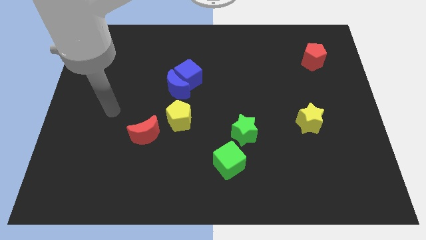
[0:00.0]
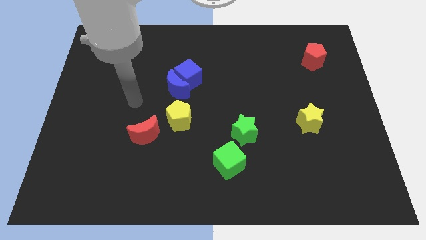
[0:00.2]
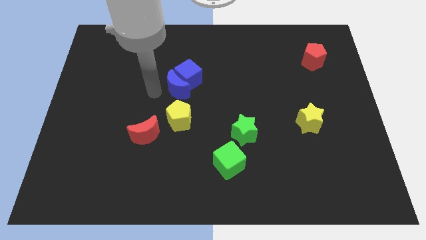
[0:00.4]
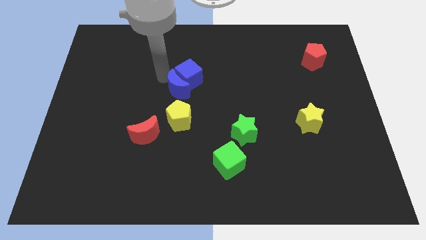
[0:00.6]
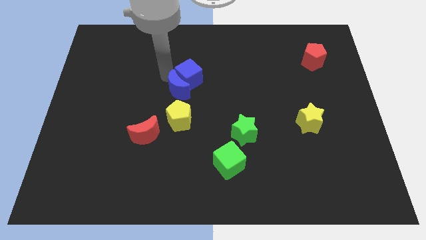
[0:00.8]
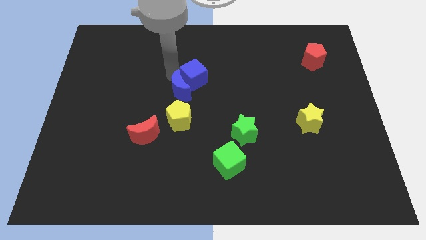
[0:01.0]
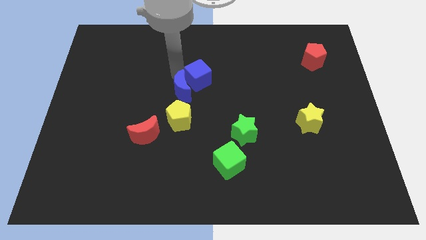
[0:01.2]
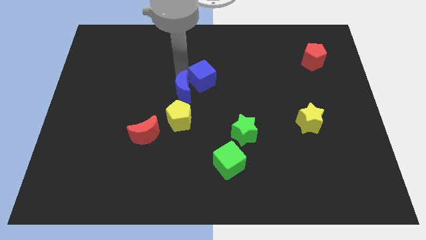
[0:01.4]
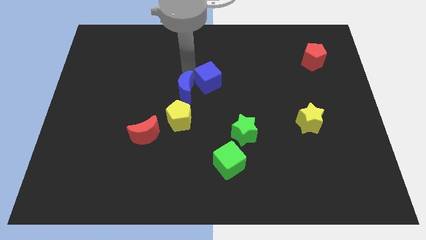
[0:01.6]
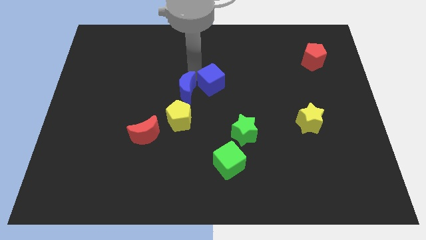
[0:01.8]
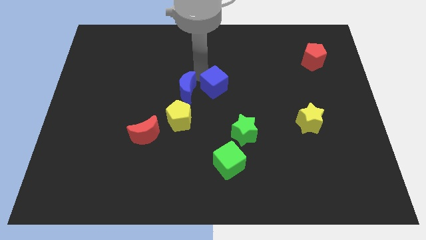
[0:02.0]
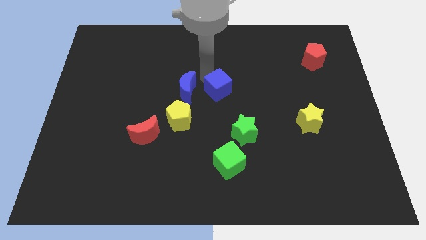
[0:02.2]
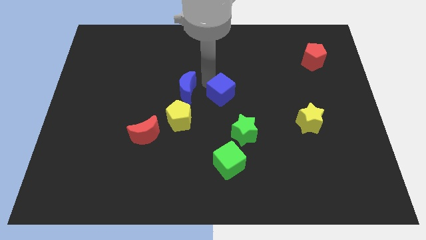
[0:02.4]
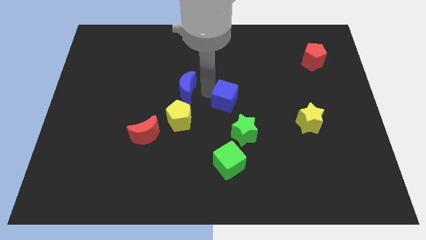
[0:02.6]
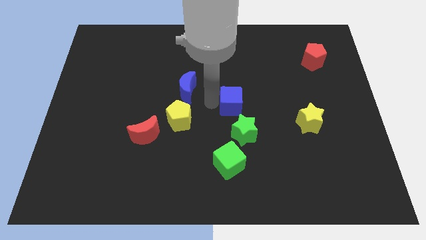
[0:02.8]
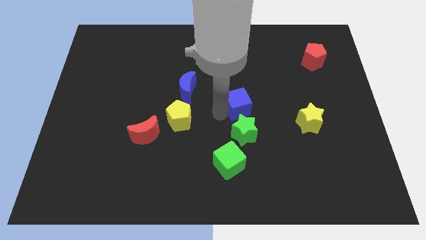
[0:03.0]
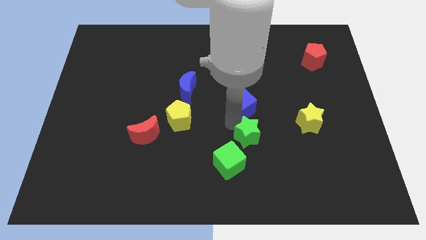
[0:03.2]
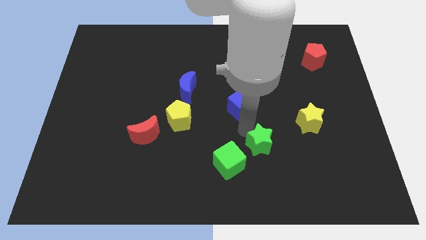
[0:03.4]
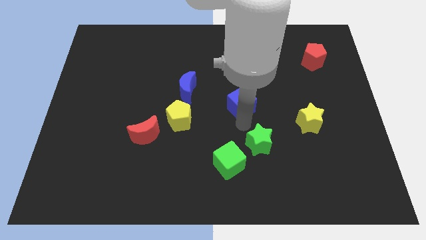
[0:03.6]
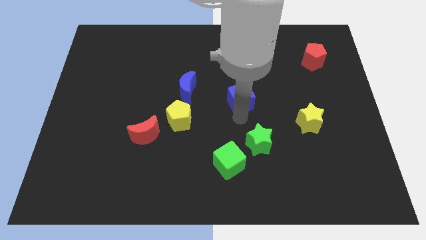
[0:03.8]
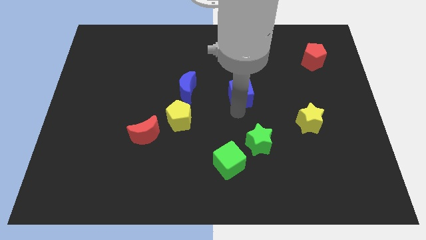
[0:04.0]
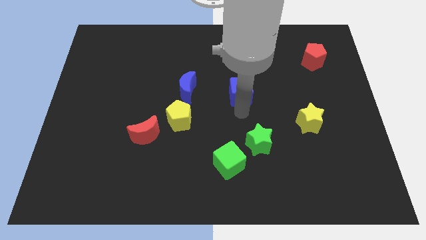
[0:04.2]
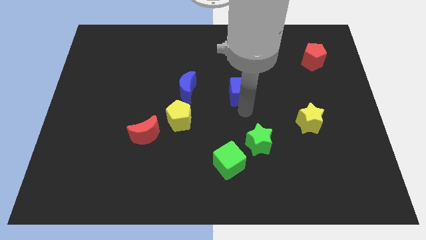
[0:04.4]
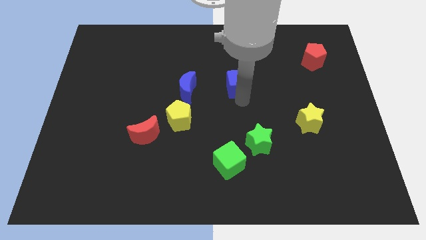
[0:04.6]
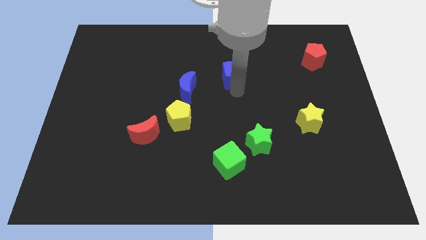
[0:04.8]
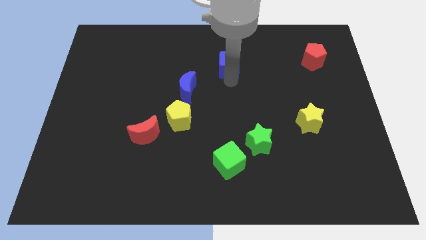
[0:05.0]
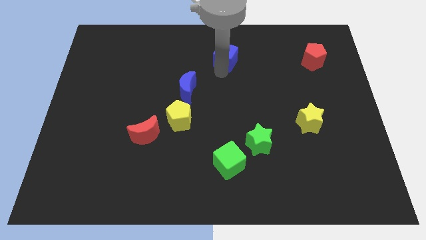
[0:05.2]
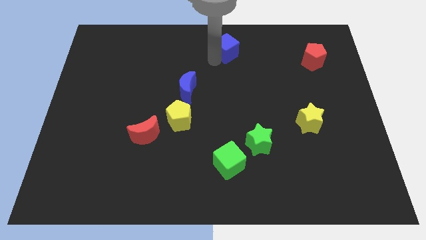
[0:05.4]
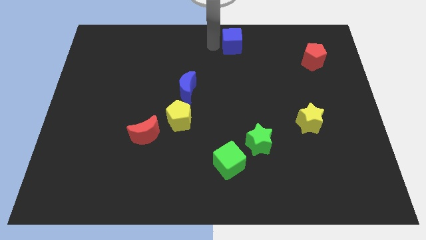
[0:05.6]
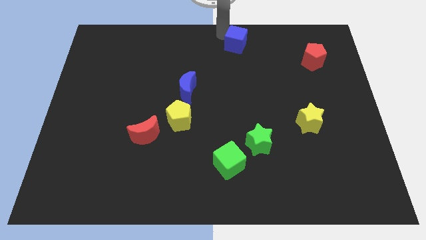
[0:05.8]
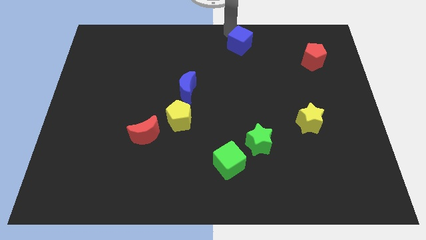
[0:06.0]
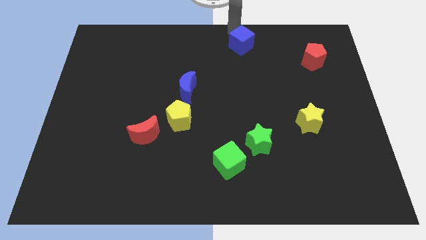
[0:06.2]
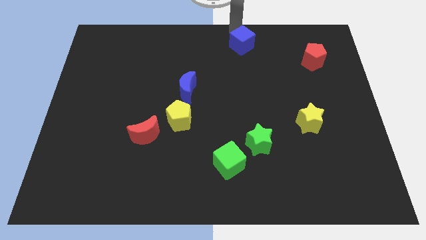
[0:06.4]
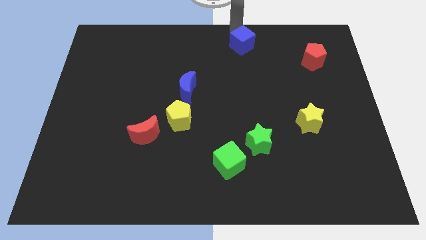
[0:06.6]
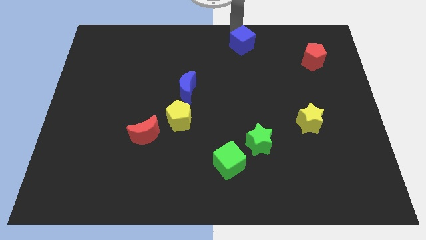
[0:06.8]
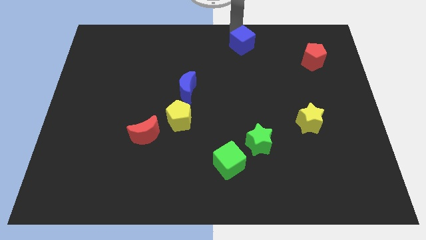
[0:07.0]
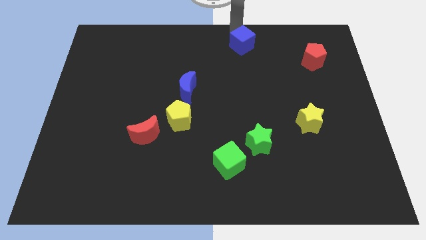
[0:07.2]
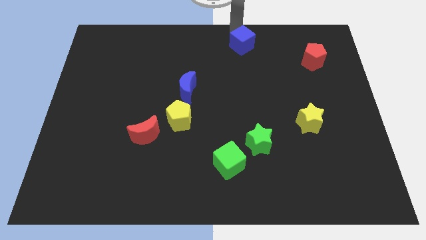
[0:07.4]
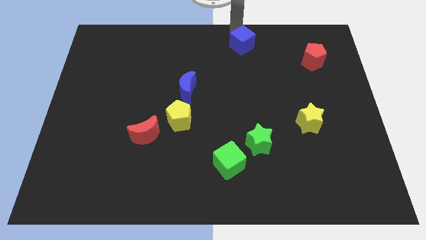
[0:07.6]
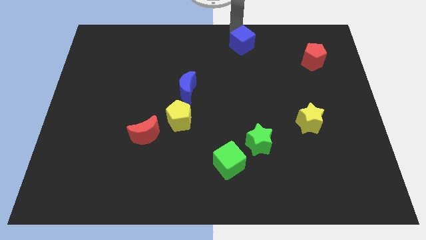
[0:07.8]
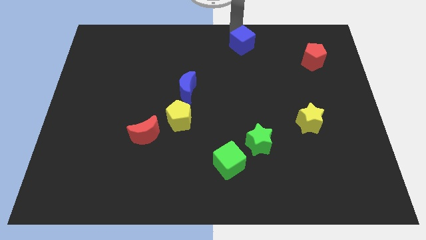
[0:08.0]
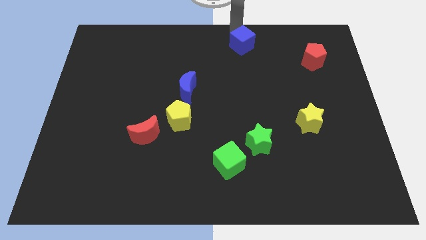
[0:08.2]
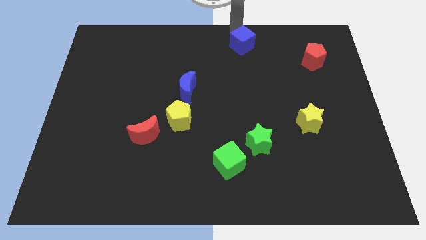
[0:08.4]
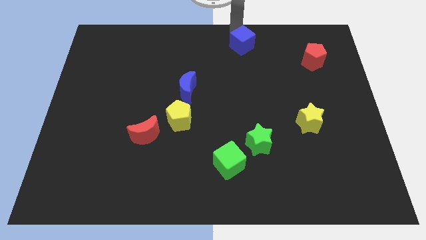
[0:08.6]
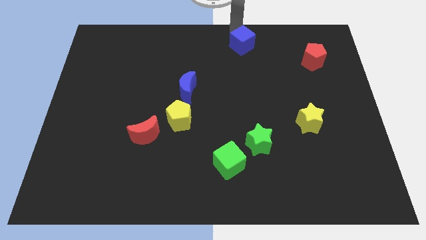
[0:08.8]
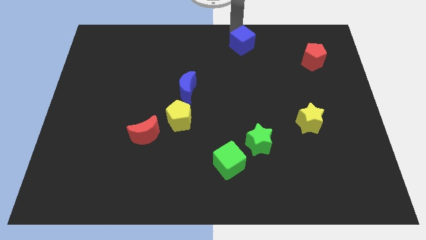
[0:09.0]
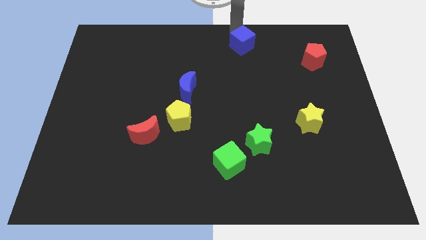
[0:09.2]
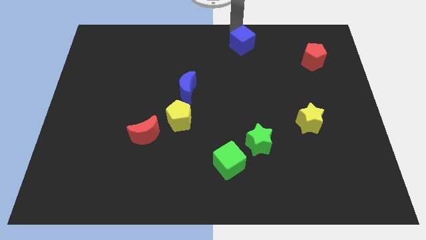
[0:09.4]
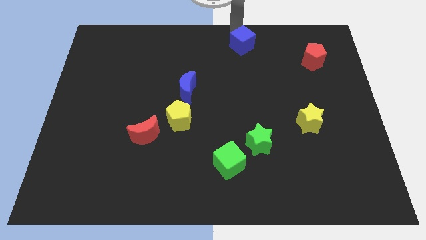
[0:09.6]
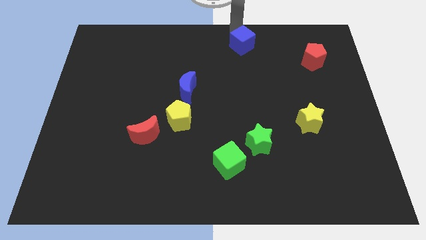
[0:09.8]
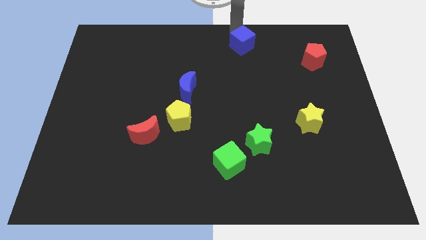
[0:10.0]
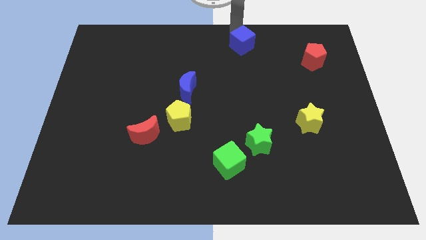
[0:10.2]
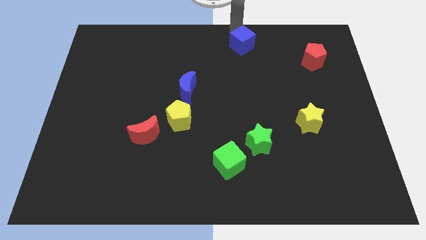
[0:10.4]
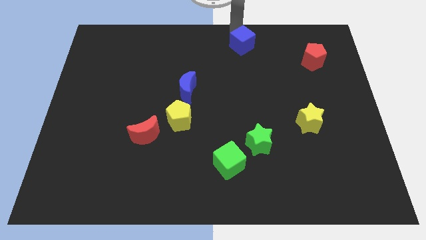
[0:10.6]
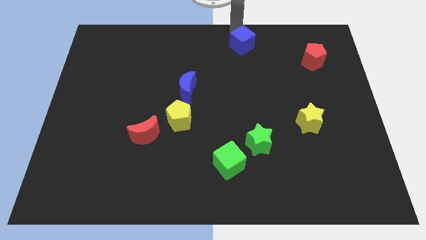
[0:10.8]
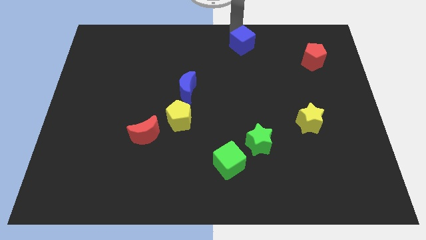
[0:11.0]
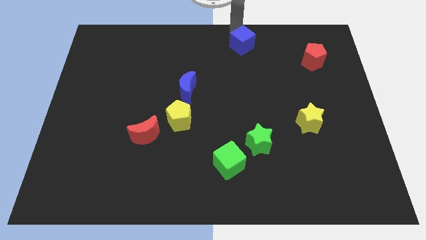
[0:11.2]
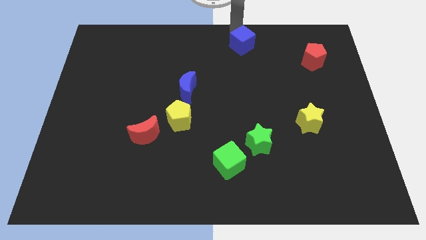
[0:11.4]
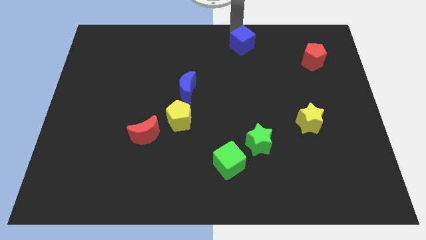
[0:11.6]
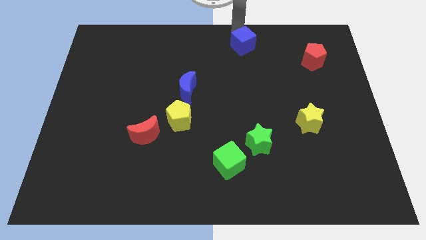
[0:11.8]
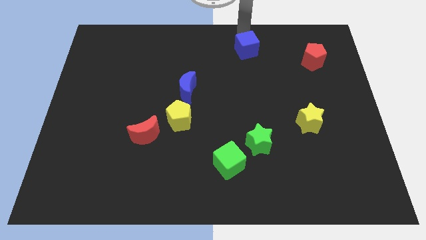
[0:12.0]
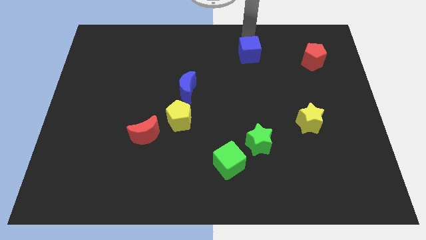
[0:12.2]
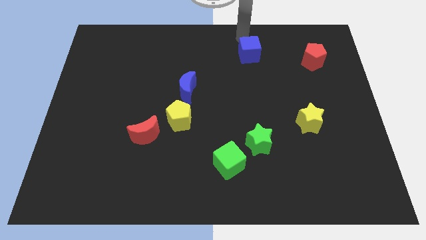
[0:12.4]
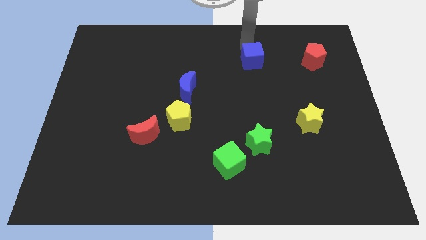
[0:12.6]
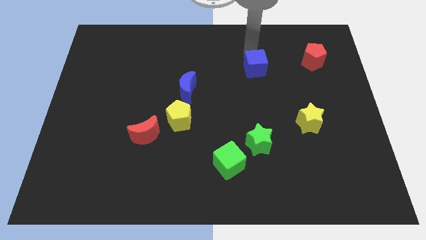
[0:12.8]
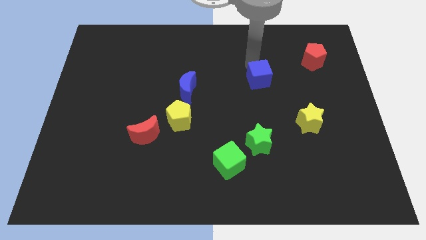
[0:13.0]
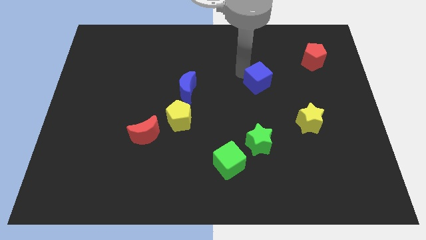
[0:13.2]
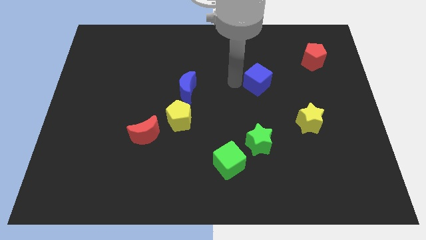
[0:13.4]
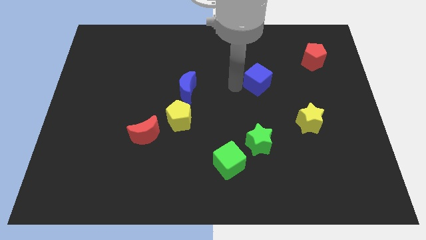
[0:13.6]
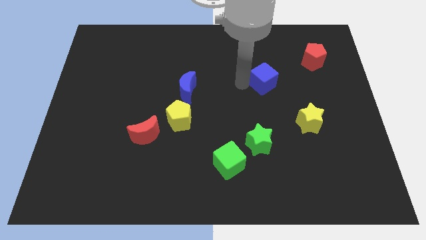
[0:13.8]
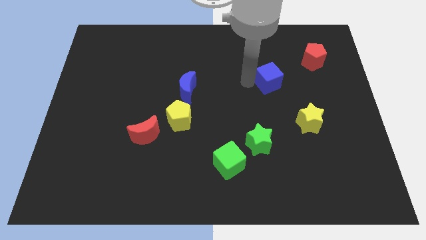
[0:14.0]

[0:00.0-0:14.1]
move the blue cube right

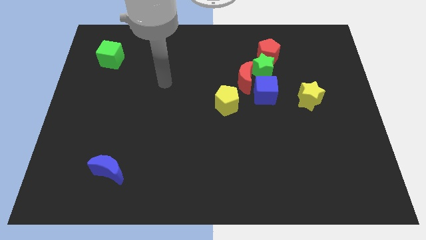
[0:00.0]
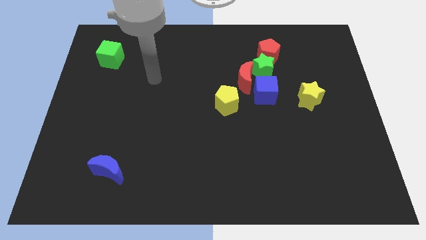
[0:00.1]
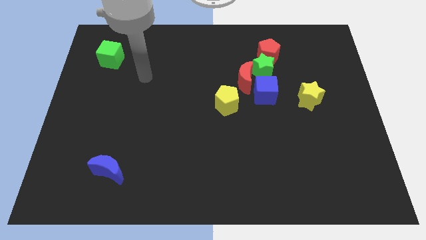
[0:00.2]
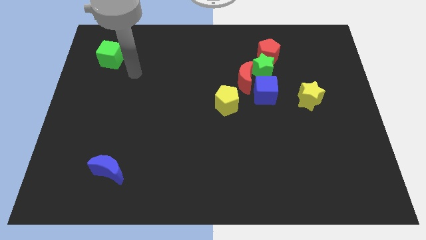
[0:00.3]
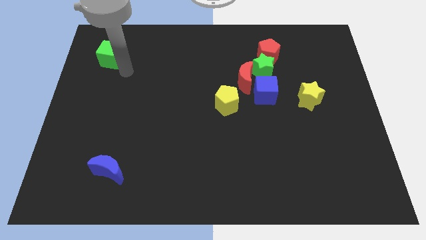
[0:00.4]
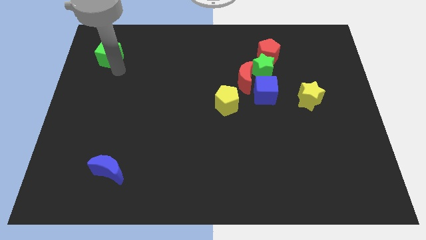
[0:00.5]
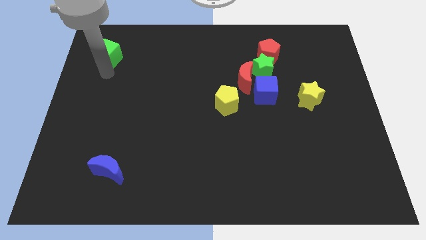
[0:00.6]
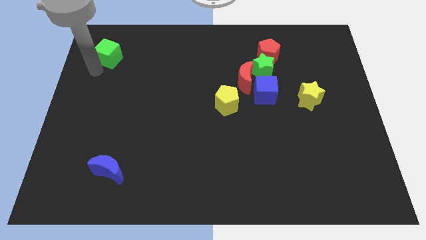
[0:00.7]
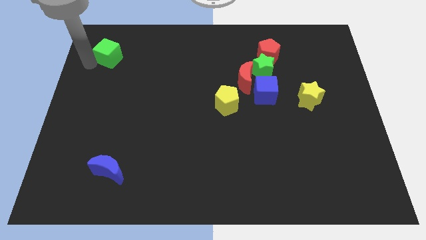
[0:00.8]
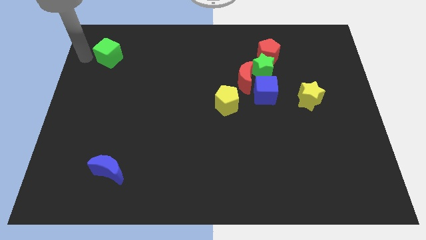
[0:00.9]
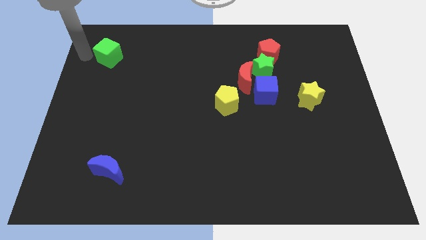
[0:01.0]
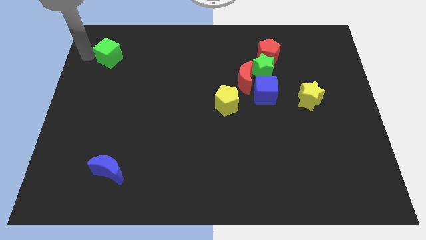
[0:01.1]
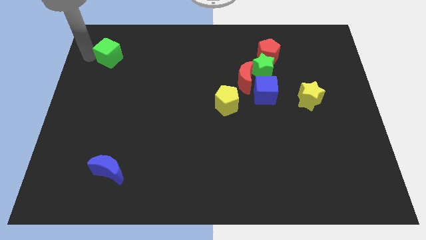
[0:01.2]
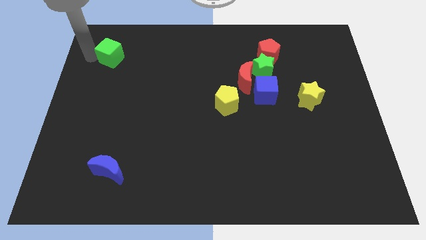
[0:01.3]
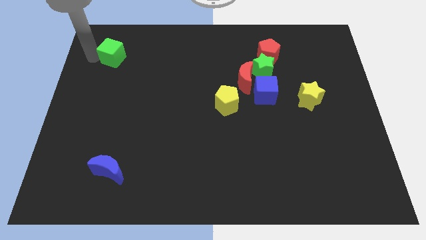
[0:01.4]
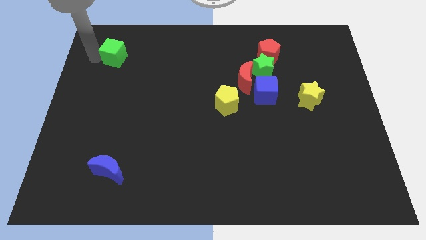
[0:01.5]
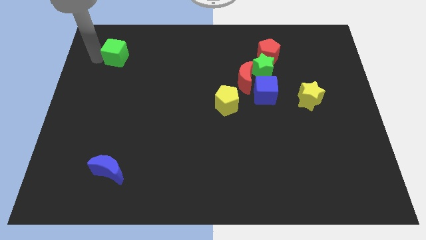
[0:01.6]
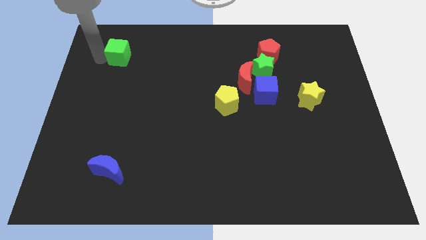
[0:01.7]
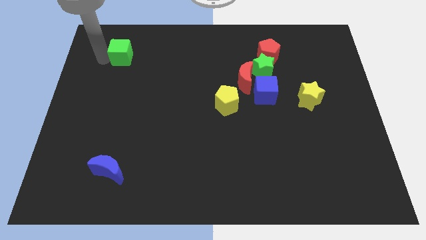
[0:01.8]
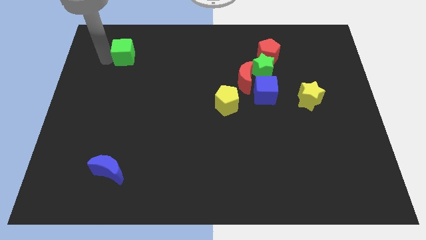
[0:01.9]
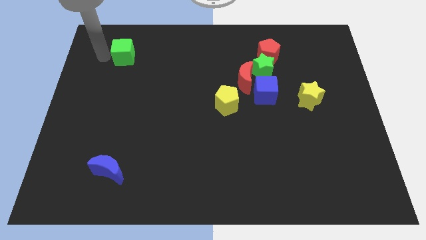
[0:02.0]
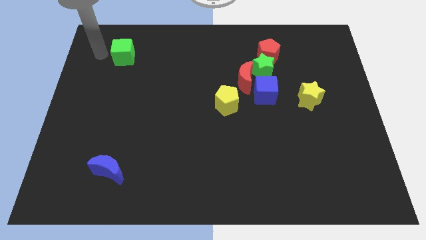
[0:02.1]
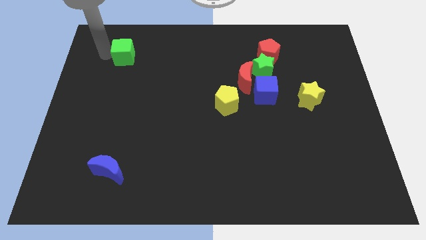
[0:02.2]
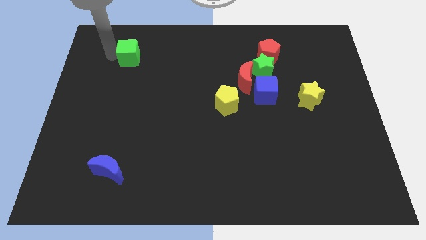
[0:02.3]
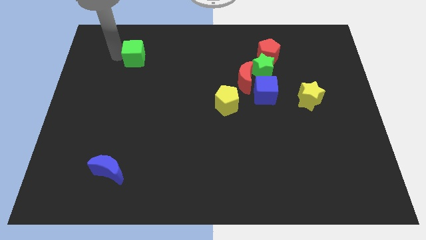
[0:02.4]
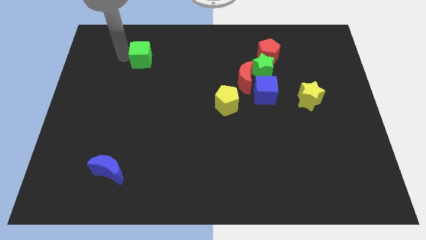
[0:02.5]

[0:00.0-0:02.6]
move the green cube right a little bit
